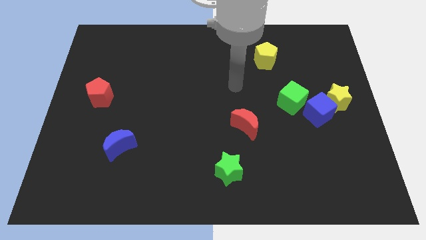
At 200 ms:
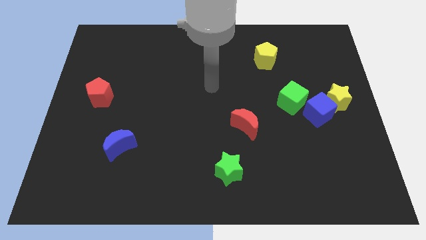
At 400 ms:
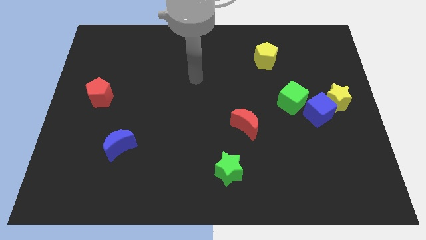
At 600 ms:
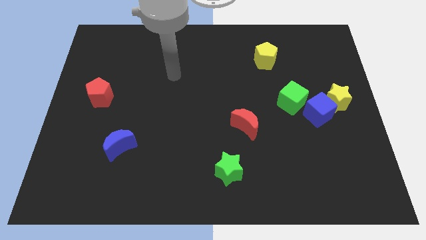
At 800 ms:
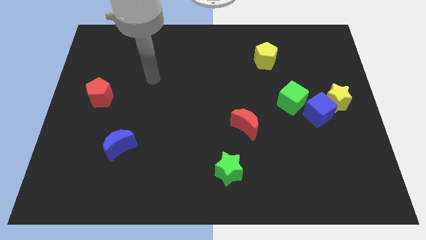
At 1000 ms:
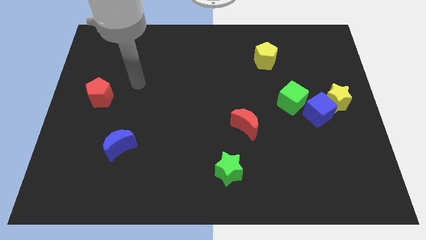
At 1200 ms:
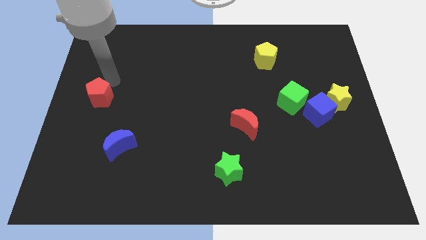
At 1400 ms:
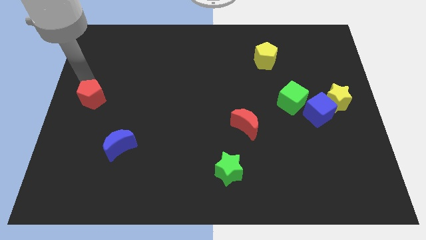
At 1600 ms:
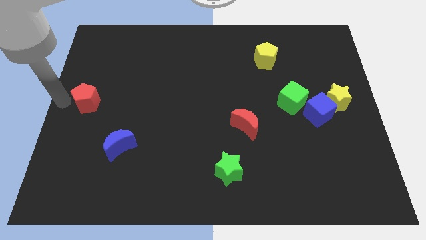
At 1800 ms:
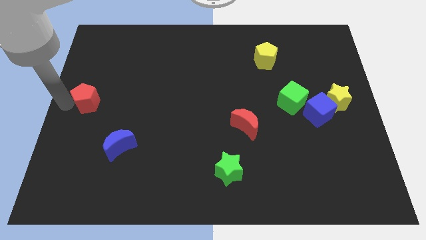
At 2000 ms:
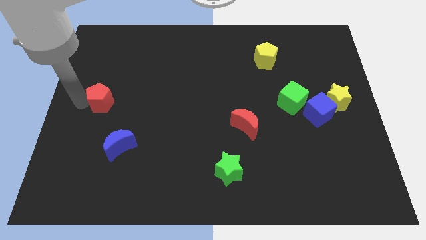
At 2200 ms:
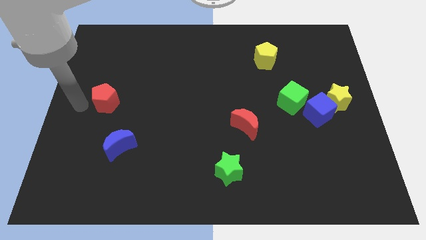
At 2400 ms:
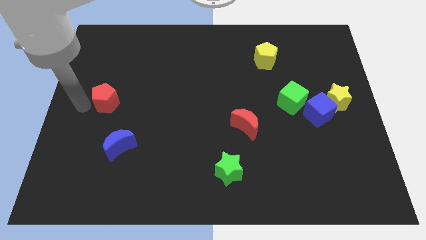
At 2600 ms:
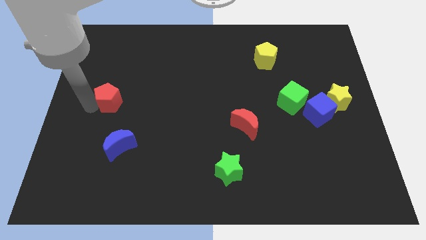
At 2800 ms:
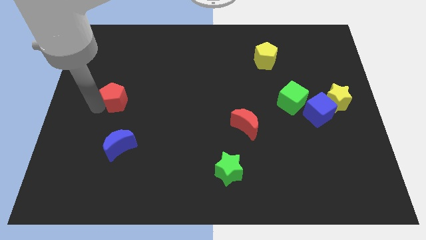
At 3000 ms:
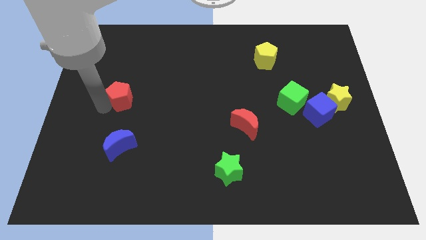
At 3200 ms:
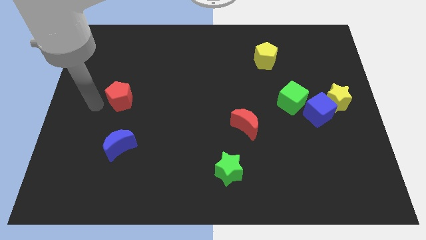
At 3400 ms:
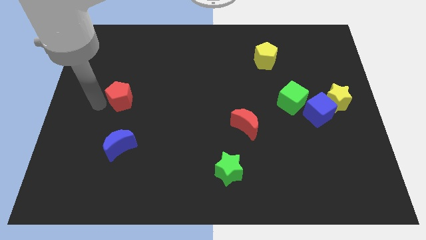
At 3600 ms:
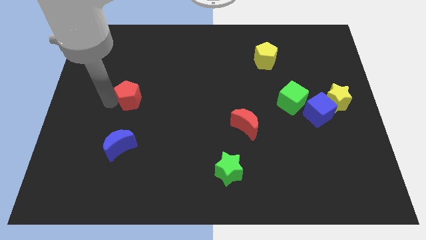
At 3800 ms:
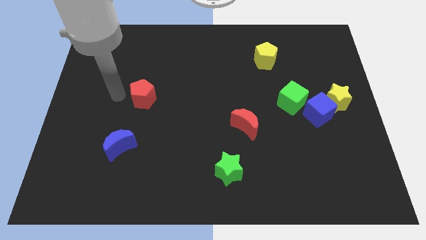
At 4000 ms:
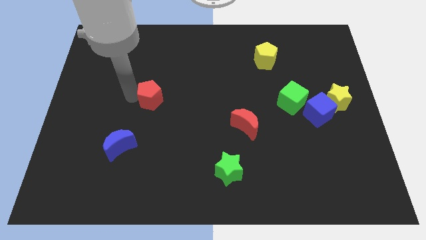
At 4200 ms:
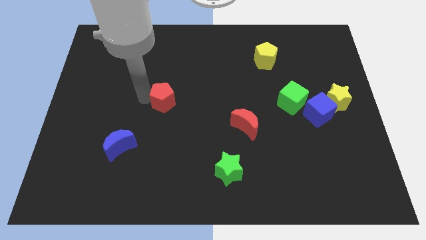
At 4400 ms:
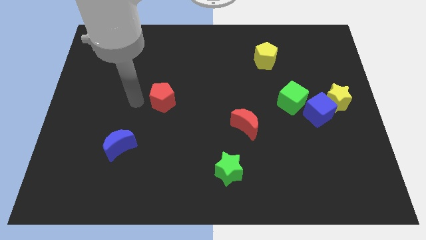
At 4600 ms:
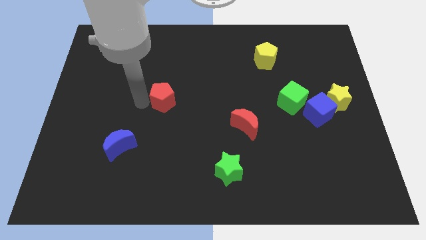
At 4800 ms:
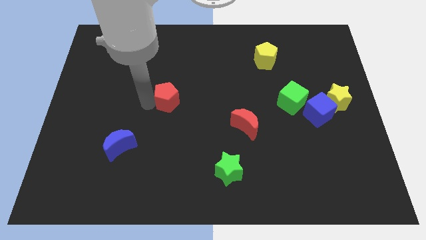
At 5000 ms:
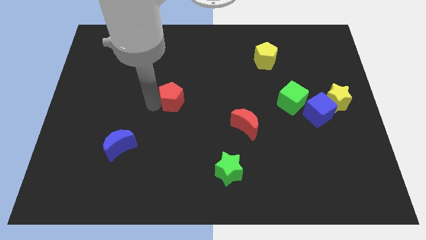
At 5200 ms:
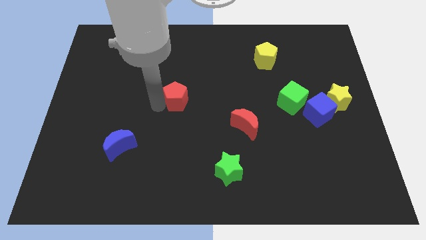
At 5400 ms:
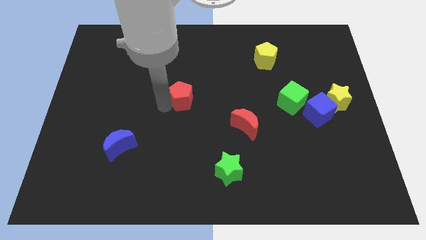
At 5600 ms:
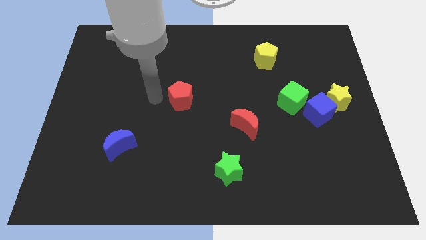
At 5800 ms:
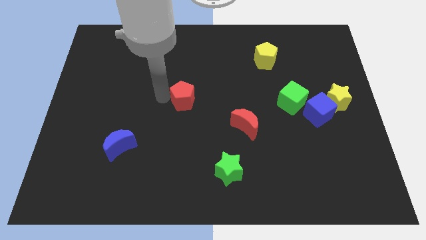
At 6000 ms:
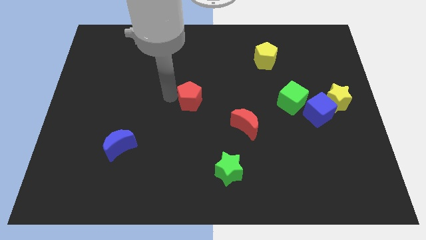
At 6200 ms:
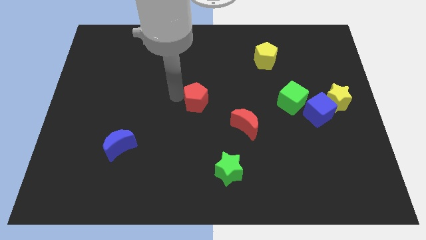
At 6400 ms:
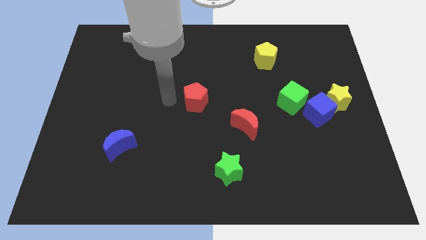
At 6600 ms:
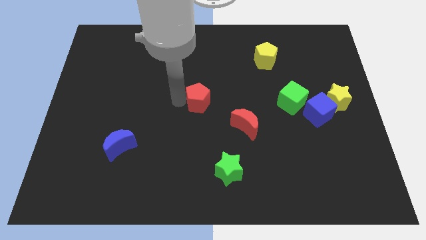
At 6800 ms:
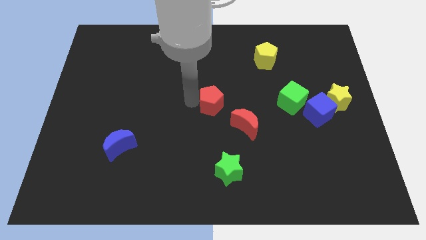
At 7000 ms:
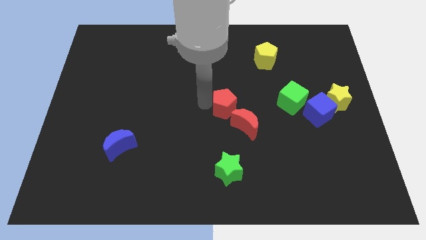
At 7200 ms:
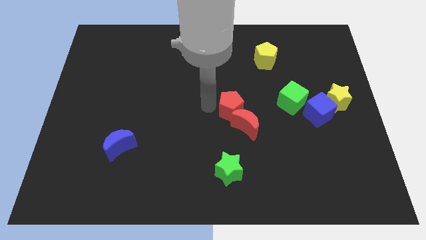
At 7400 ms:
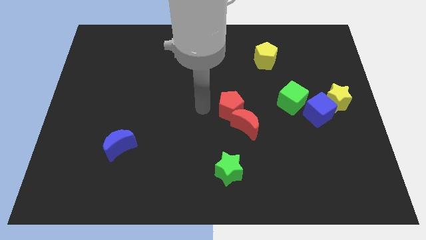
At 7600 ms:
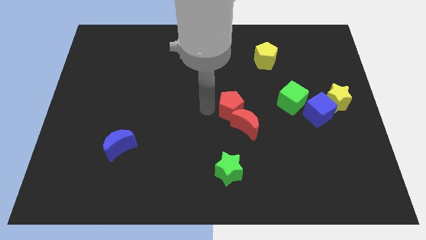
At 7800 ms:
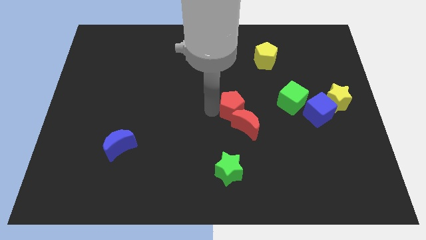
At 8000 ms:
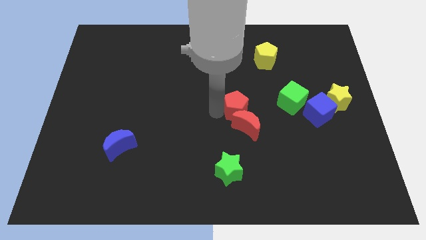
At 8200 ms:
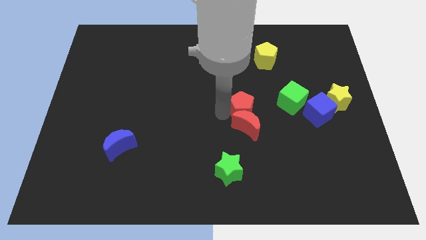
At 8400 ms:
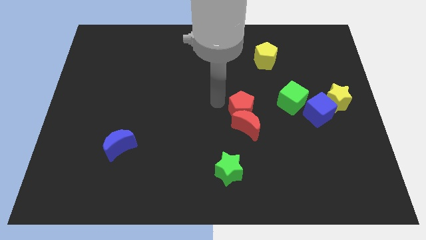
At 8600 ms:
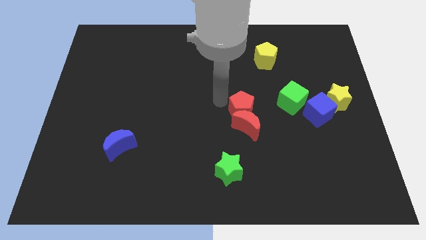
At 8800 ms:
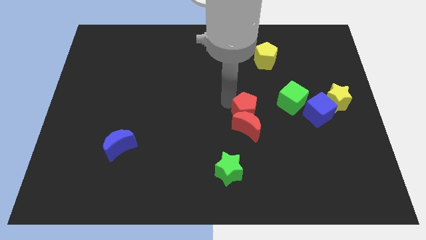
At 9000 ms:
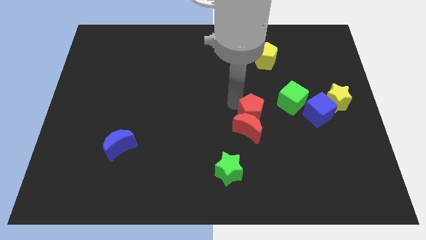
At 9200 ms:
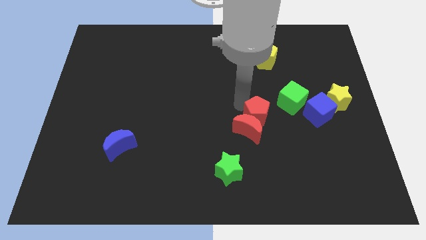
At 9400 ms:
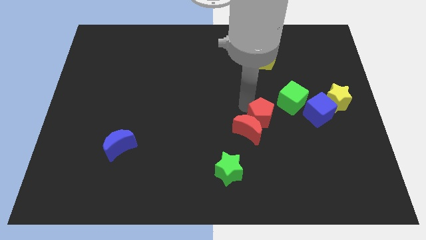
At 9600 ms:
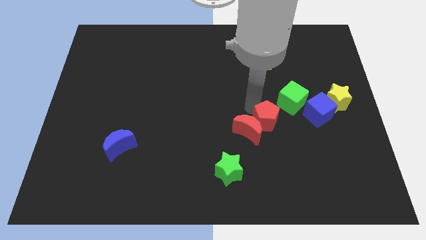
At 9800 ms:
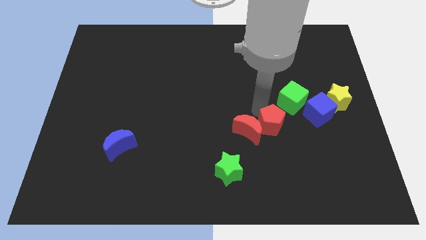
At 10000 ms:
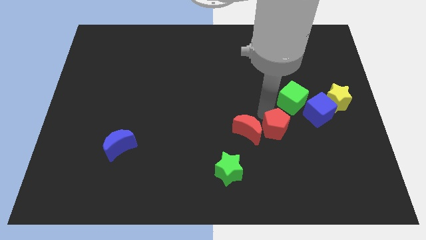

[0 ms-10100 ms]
put the red pentagon to the bottom side of the green cube

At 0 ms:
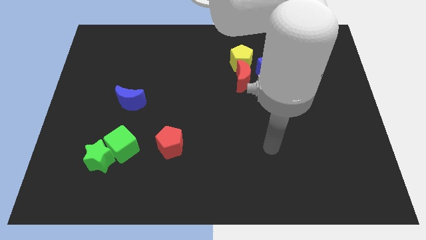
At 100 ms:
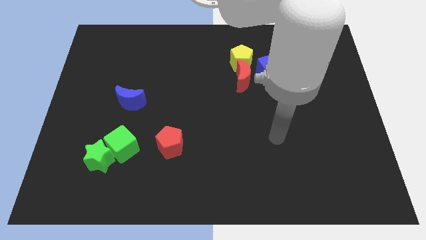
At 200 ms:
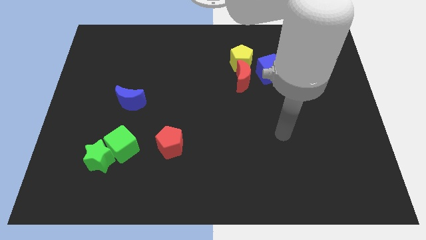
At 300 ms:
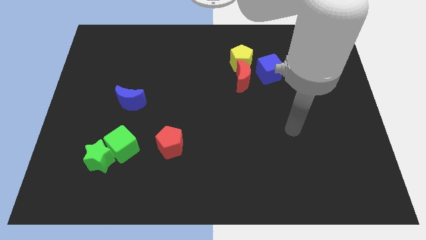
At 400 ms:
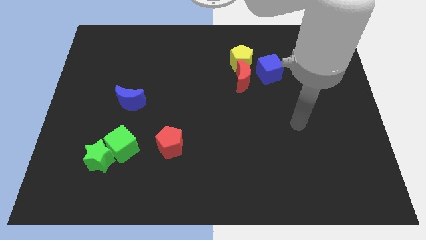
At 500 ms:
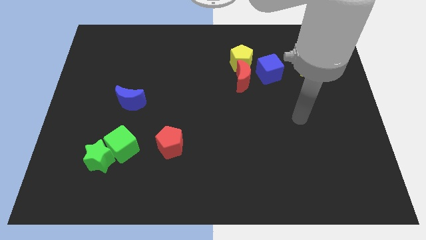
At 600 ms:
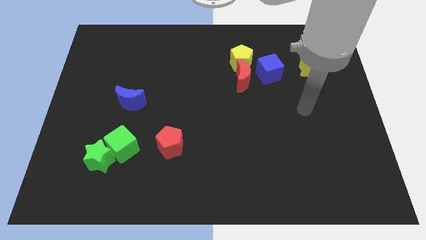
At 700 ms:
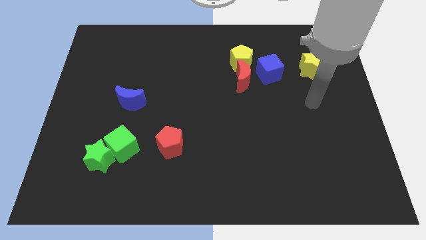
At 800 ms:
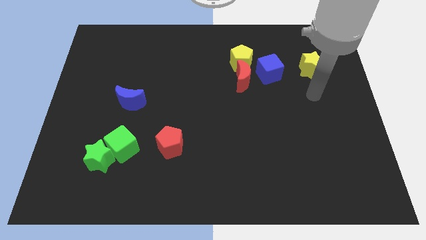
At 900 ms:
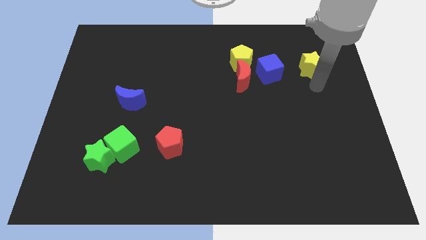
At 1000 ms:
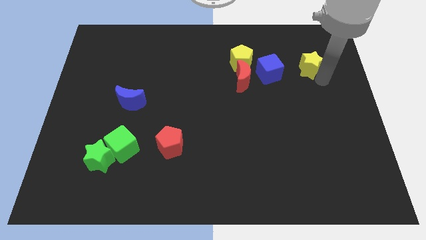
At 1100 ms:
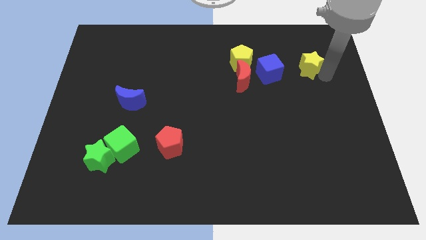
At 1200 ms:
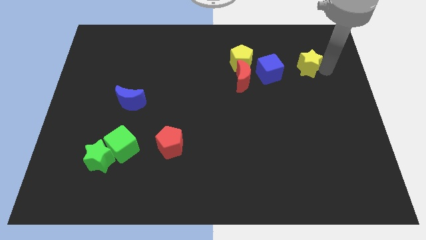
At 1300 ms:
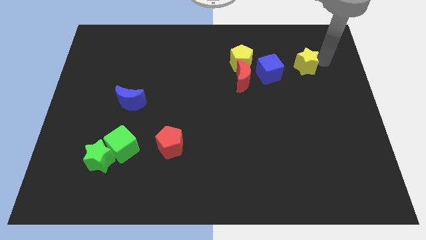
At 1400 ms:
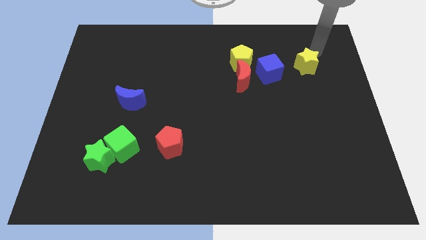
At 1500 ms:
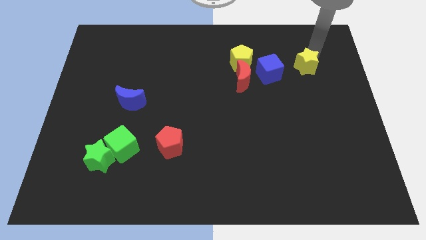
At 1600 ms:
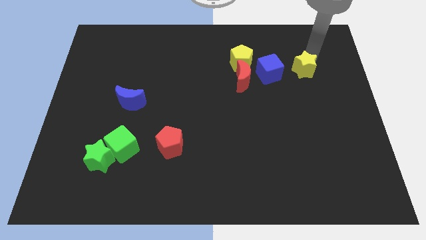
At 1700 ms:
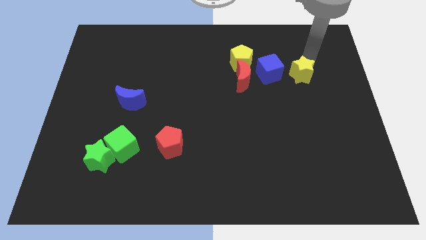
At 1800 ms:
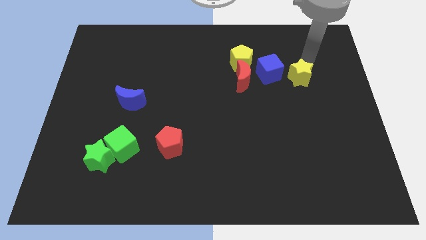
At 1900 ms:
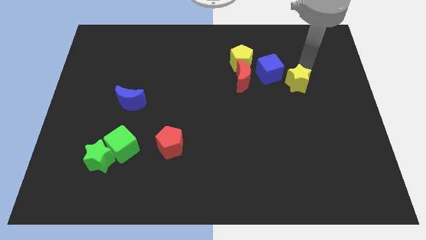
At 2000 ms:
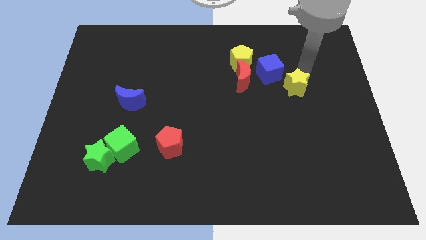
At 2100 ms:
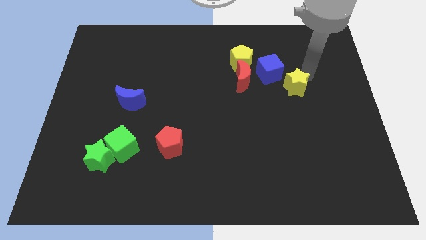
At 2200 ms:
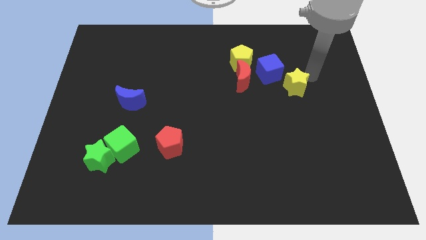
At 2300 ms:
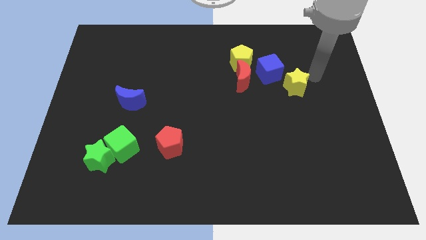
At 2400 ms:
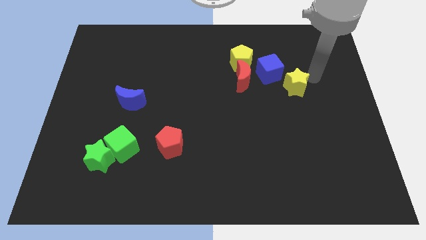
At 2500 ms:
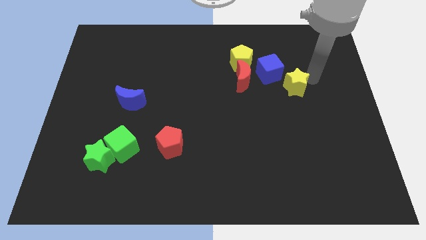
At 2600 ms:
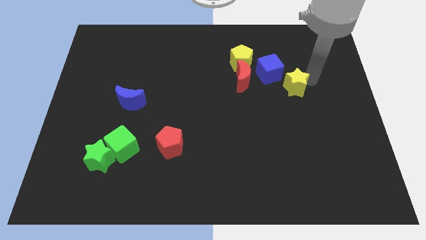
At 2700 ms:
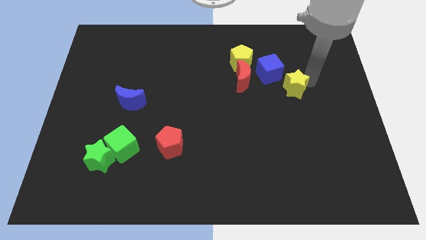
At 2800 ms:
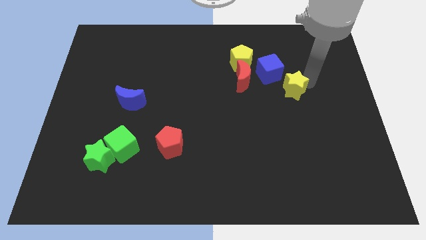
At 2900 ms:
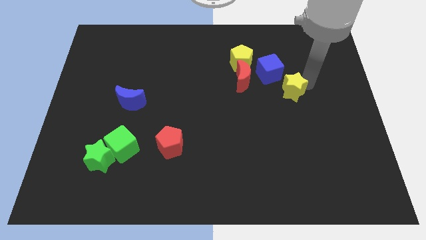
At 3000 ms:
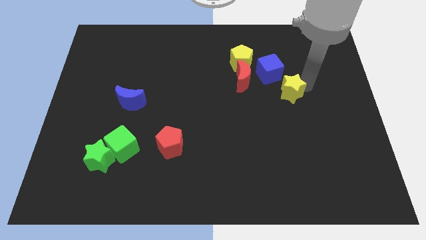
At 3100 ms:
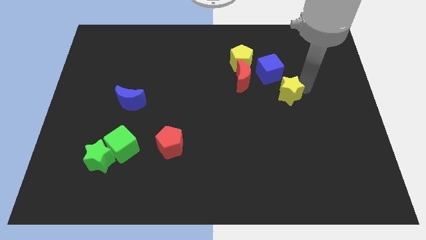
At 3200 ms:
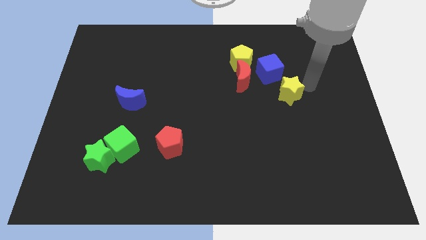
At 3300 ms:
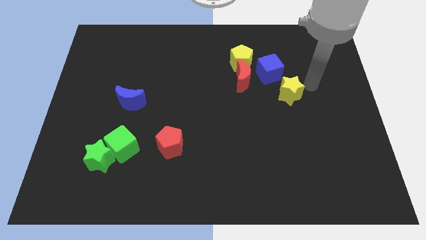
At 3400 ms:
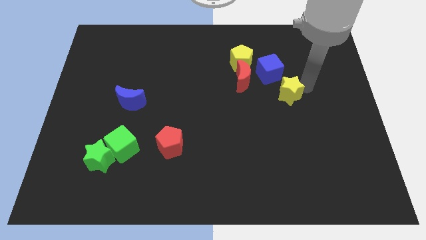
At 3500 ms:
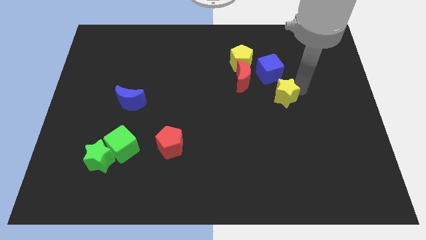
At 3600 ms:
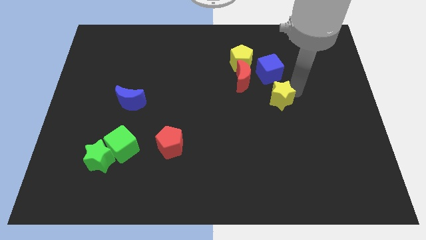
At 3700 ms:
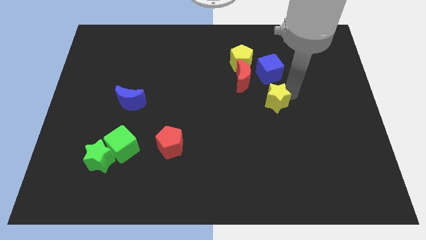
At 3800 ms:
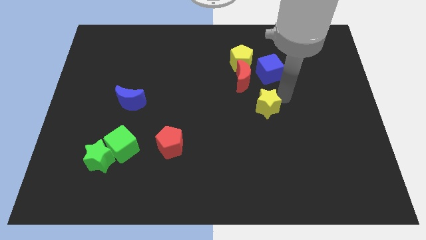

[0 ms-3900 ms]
push the yellow star to the bottom side of the red moon
